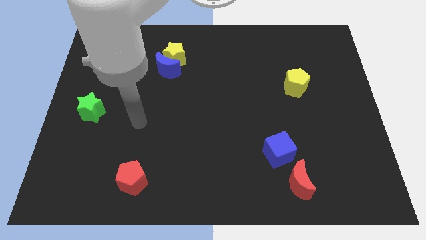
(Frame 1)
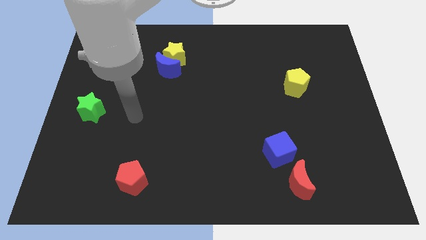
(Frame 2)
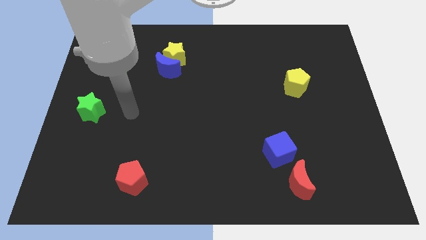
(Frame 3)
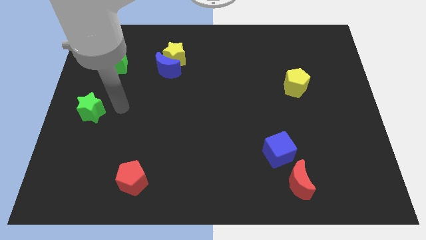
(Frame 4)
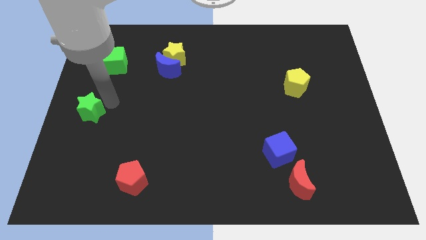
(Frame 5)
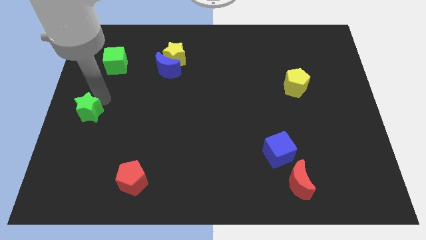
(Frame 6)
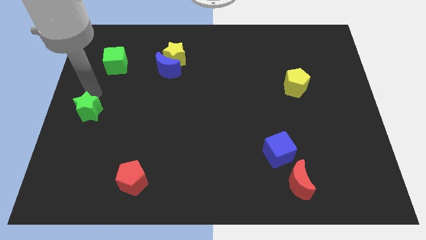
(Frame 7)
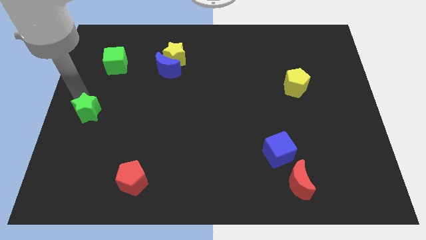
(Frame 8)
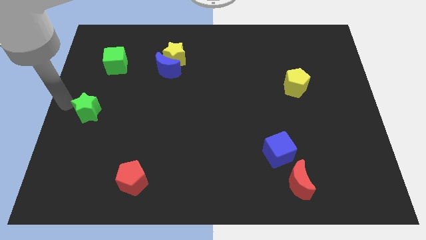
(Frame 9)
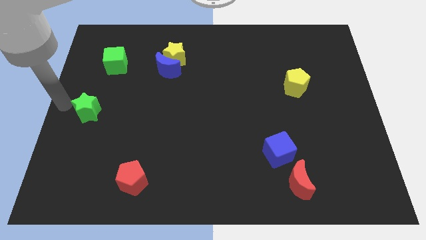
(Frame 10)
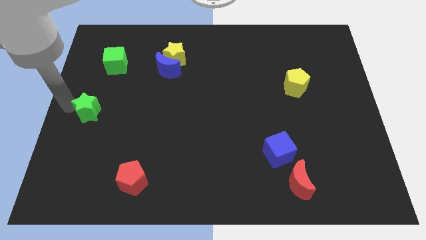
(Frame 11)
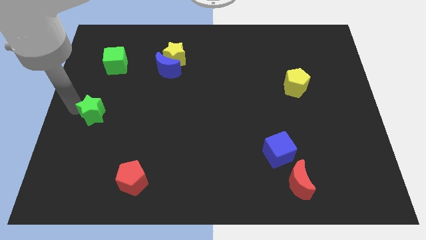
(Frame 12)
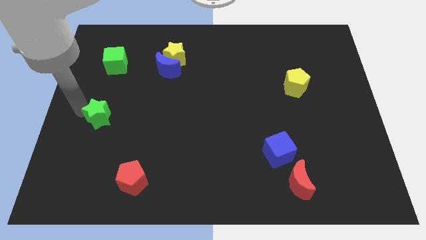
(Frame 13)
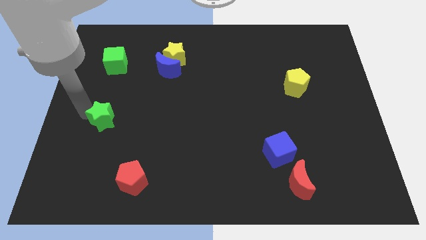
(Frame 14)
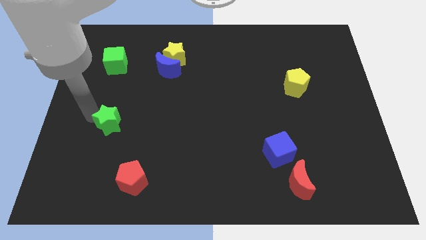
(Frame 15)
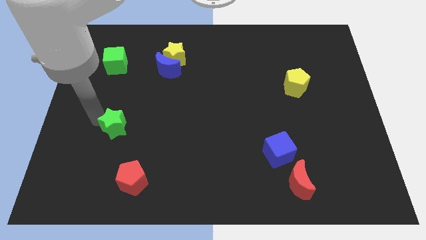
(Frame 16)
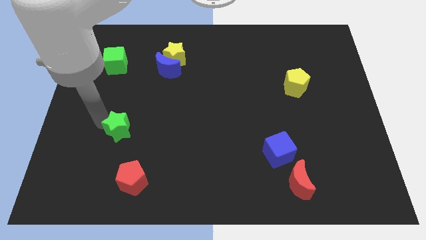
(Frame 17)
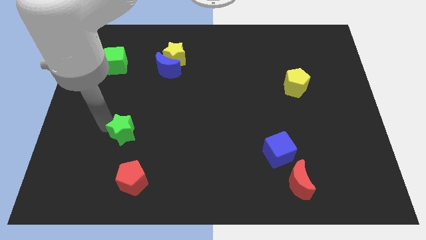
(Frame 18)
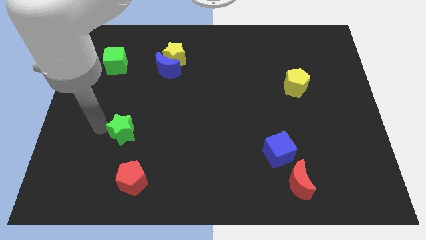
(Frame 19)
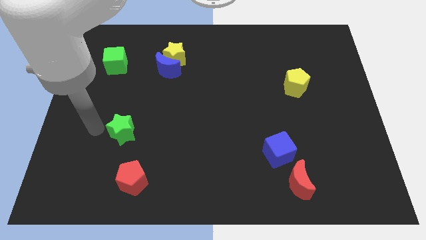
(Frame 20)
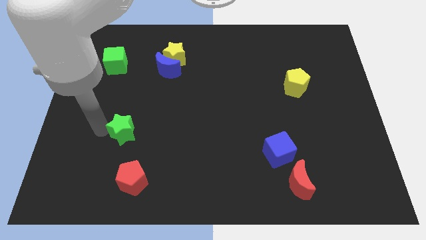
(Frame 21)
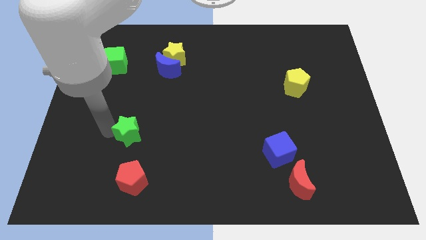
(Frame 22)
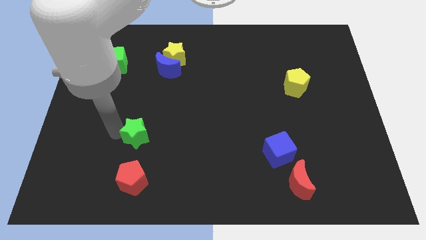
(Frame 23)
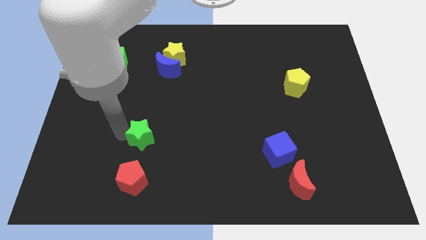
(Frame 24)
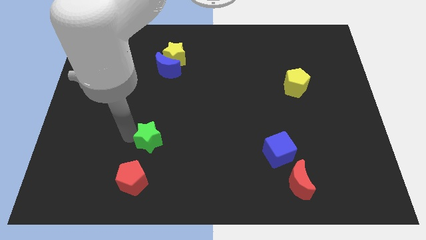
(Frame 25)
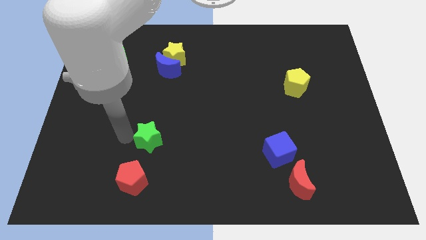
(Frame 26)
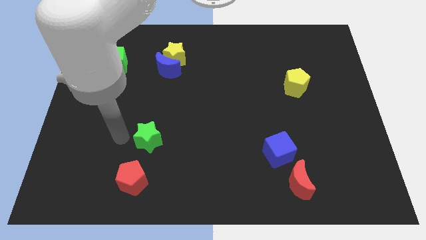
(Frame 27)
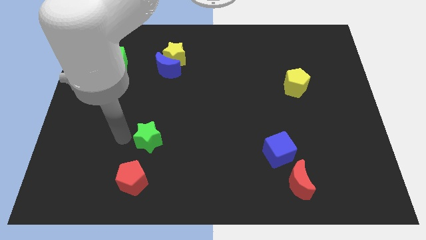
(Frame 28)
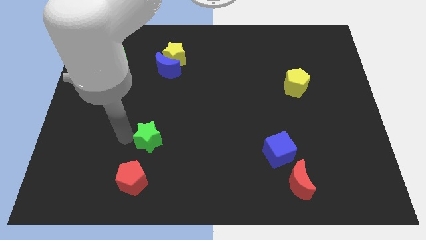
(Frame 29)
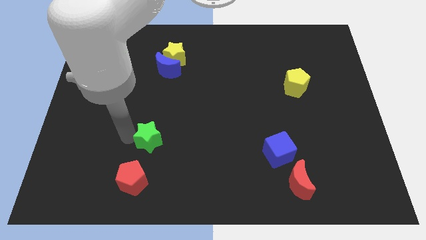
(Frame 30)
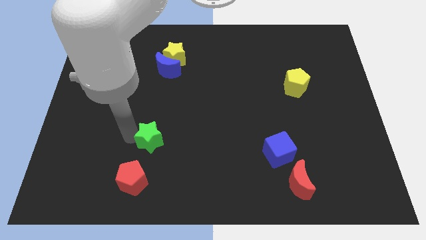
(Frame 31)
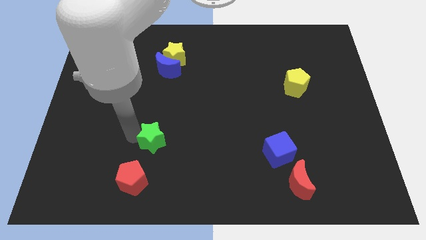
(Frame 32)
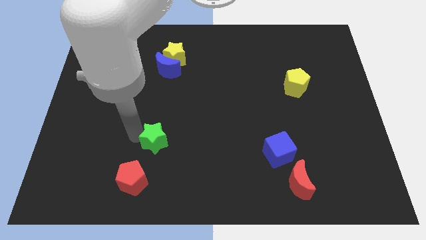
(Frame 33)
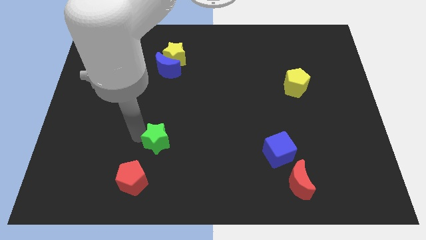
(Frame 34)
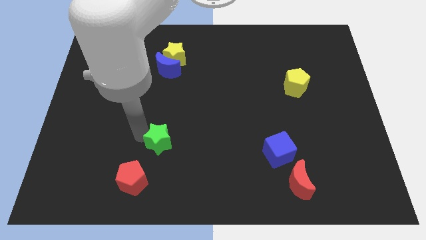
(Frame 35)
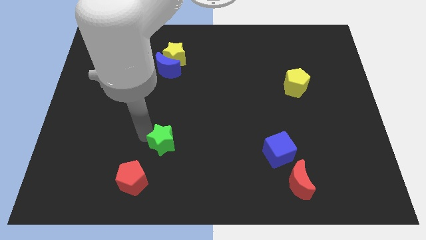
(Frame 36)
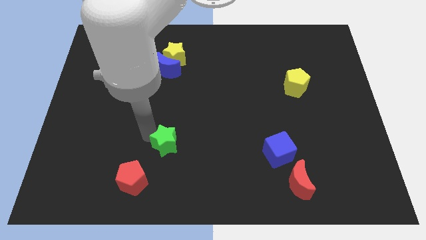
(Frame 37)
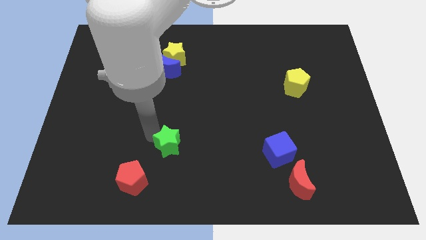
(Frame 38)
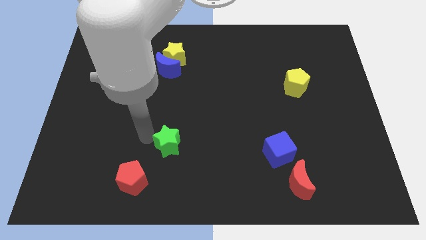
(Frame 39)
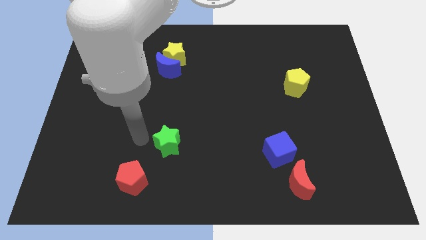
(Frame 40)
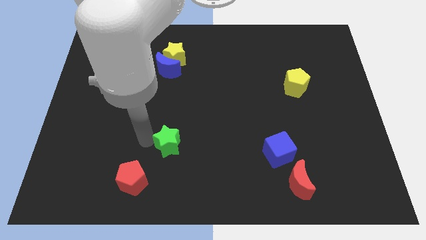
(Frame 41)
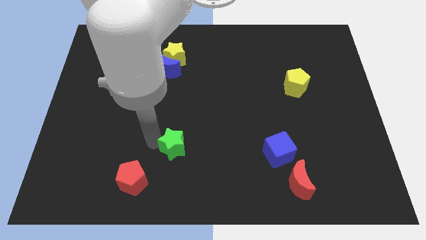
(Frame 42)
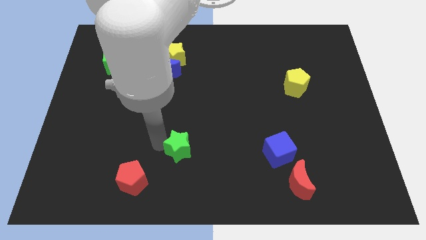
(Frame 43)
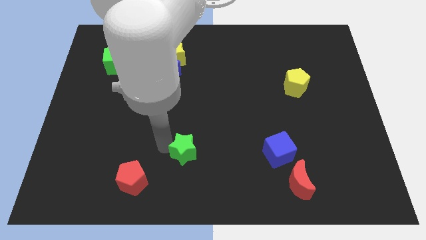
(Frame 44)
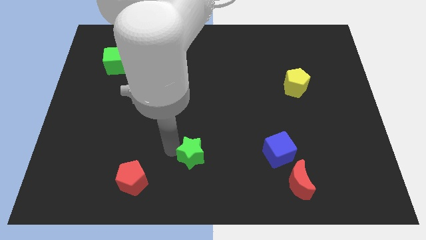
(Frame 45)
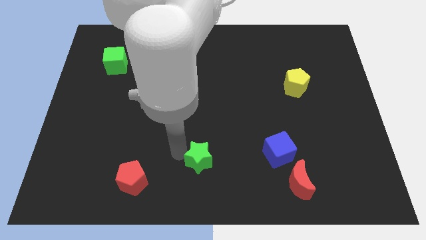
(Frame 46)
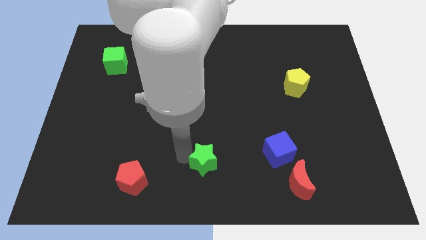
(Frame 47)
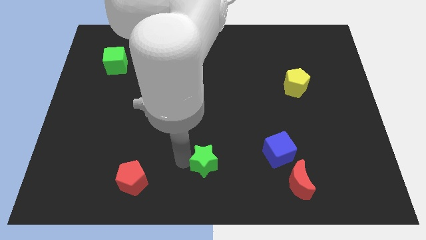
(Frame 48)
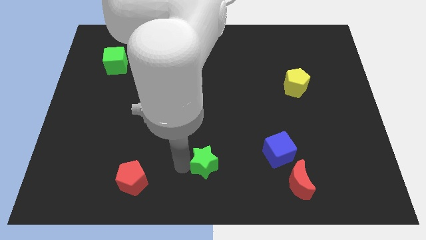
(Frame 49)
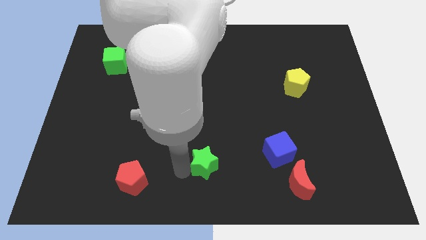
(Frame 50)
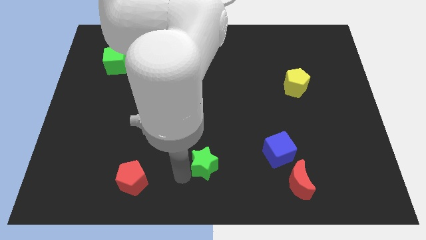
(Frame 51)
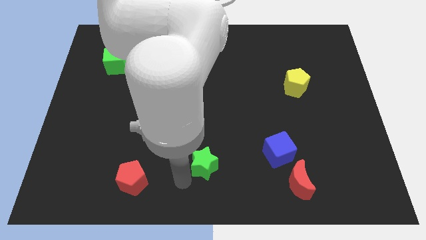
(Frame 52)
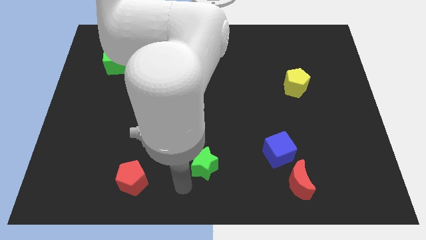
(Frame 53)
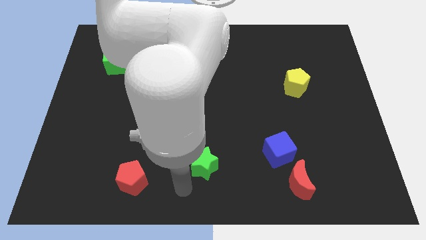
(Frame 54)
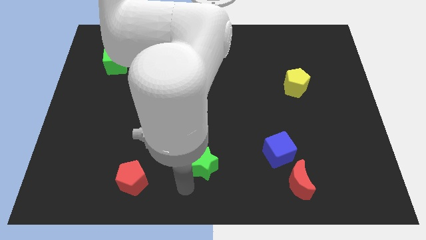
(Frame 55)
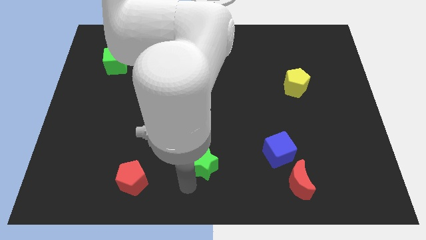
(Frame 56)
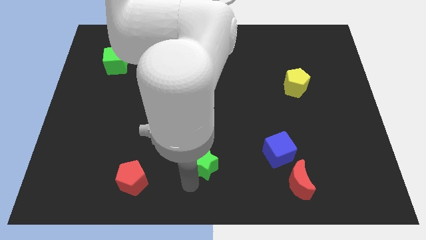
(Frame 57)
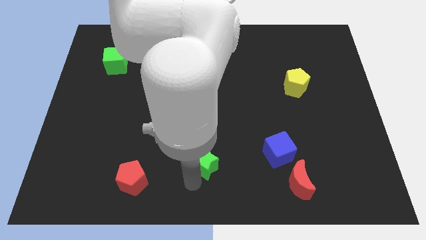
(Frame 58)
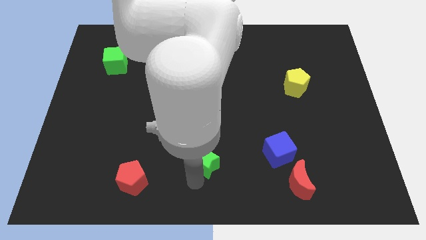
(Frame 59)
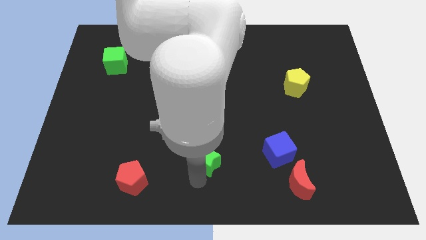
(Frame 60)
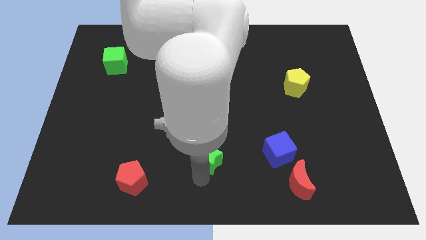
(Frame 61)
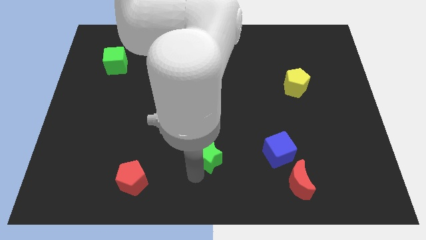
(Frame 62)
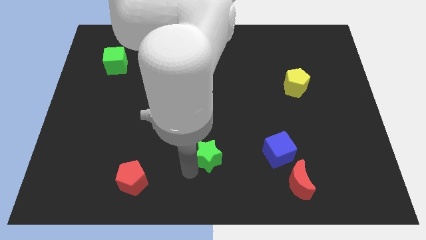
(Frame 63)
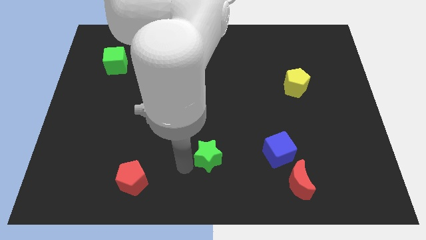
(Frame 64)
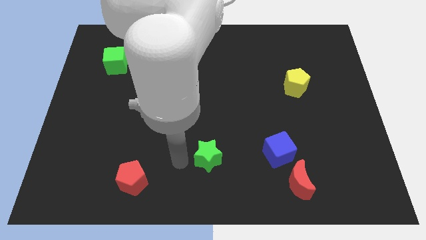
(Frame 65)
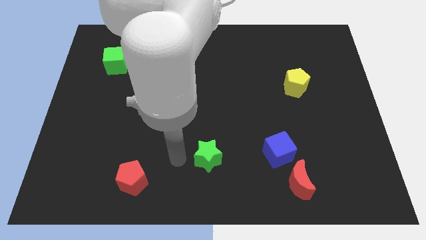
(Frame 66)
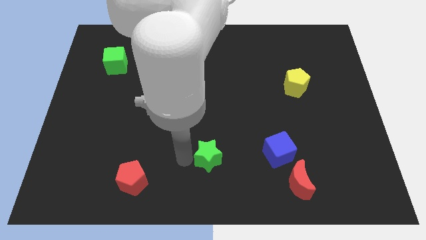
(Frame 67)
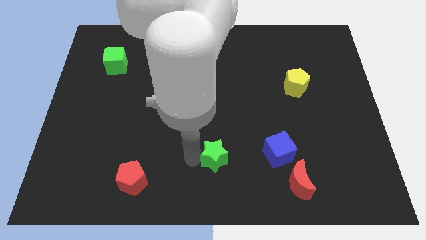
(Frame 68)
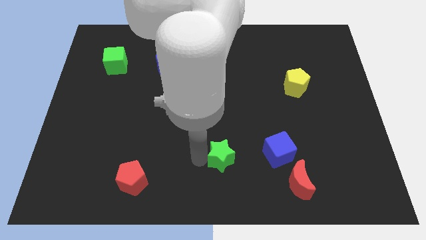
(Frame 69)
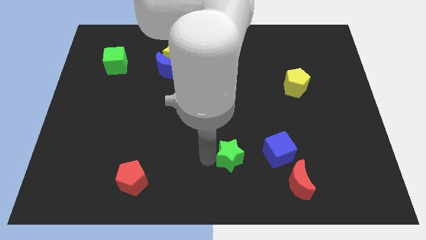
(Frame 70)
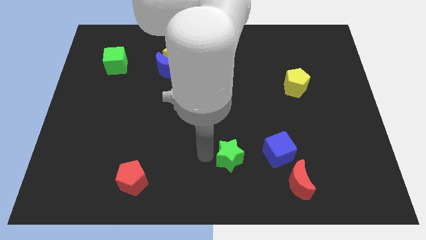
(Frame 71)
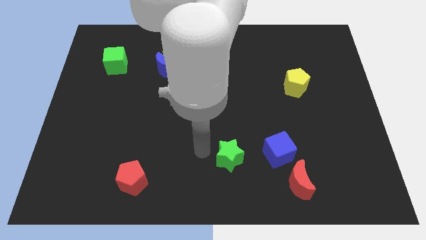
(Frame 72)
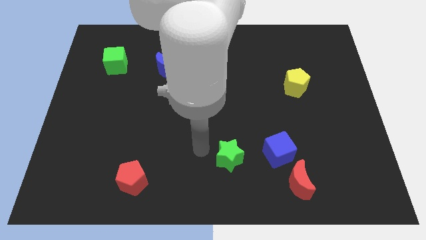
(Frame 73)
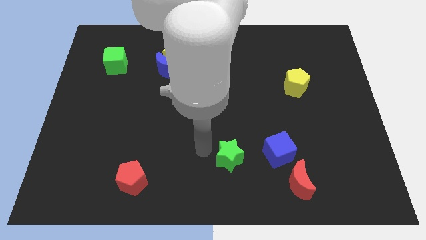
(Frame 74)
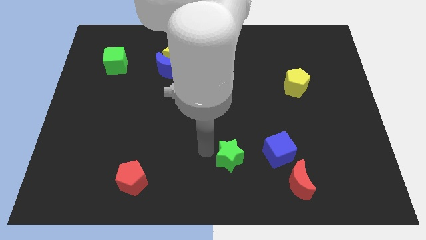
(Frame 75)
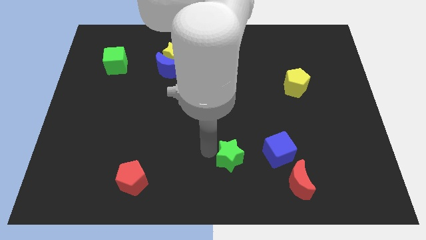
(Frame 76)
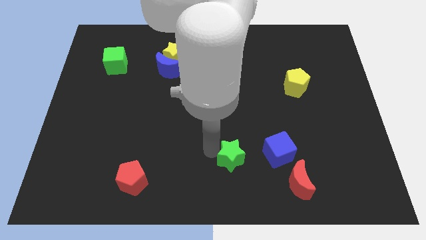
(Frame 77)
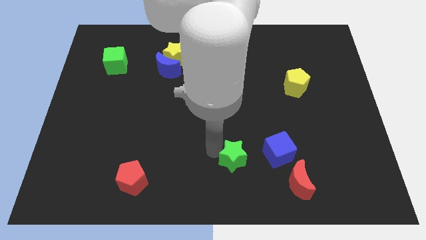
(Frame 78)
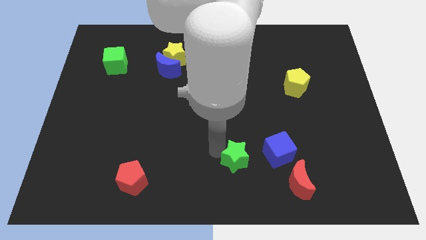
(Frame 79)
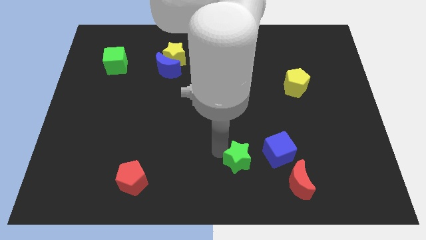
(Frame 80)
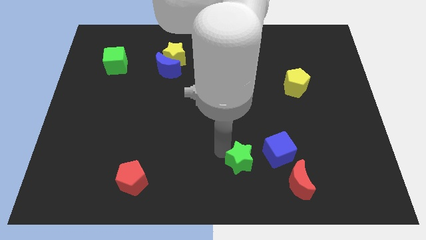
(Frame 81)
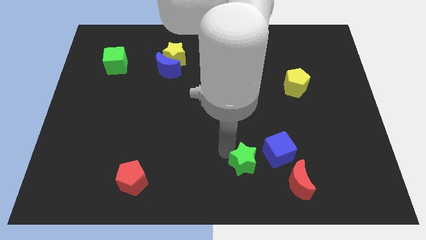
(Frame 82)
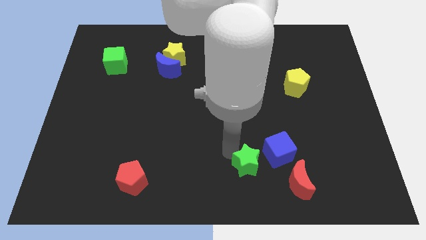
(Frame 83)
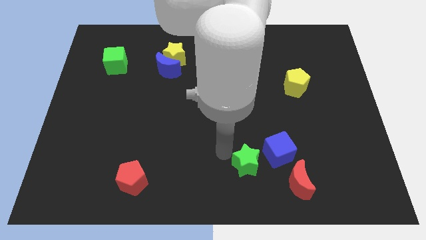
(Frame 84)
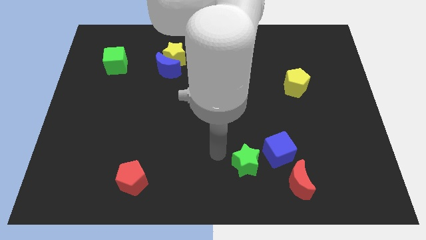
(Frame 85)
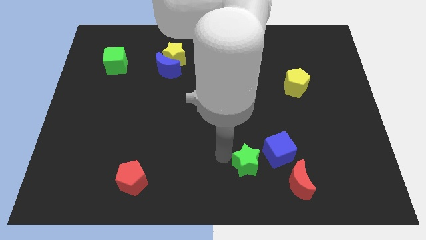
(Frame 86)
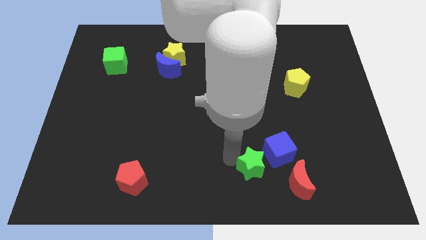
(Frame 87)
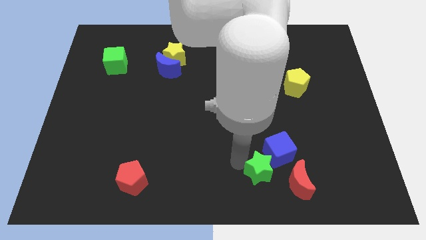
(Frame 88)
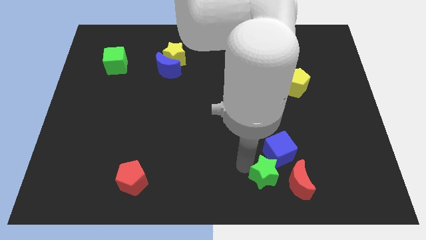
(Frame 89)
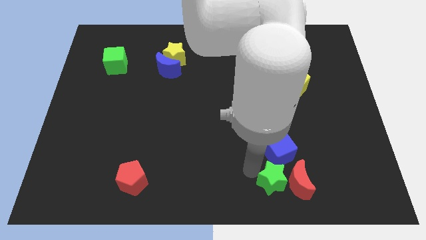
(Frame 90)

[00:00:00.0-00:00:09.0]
put the green star to the red moon
